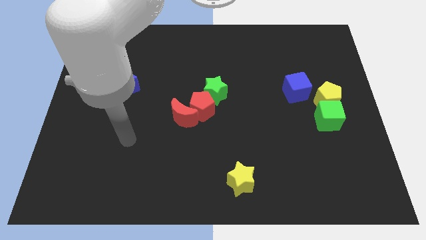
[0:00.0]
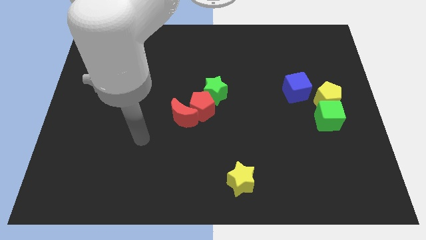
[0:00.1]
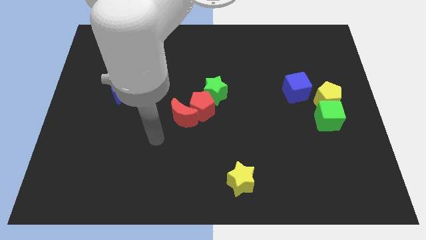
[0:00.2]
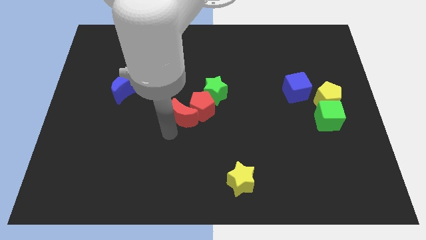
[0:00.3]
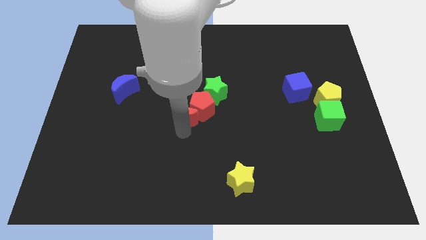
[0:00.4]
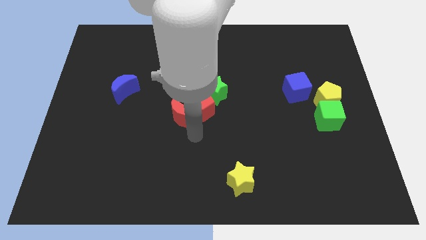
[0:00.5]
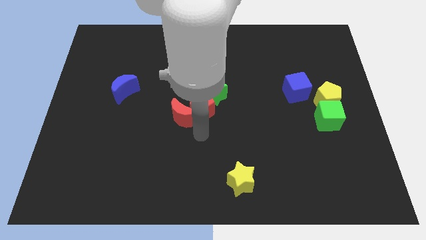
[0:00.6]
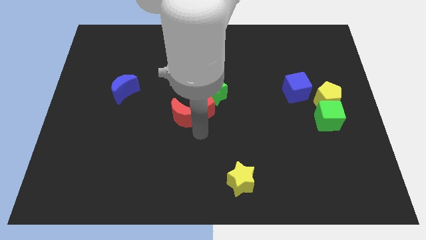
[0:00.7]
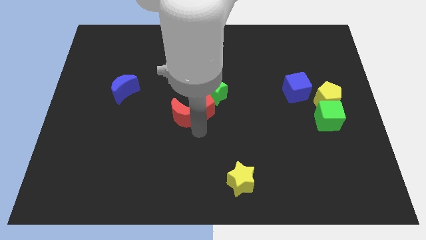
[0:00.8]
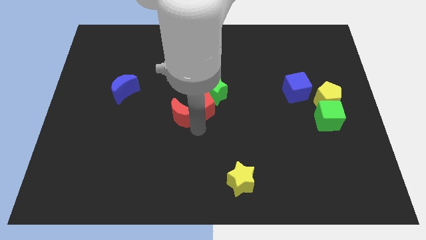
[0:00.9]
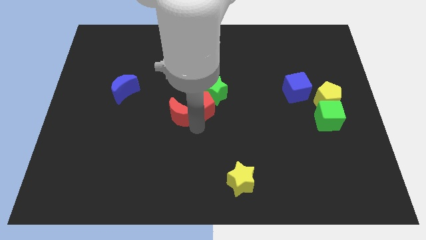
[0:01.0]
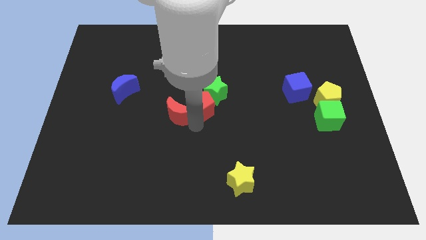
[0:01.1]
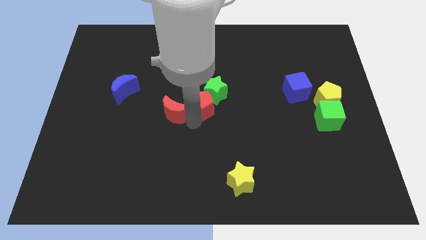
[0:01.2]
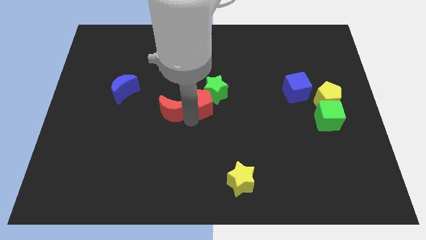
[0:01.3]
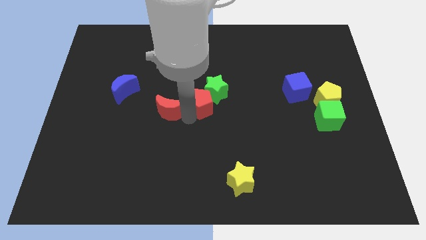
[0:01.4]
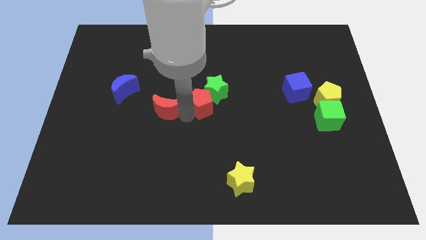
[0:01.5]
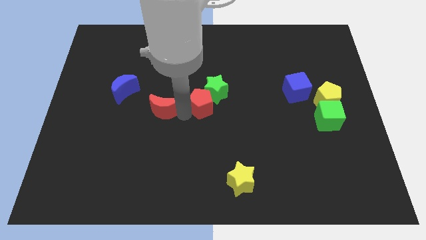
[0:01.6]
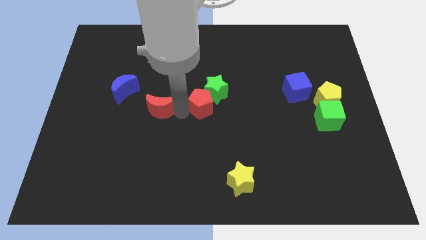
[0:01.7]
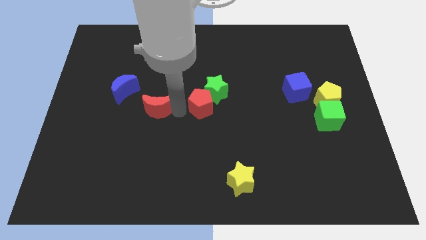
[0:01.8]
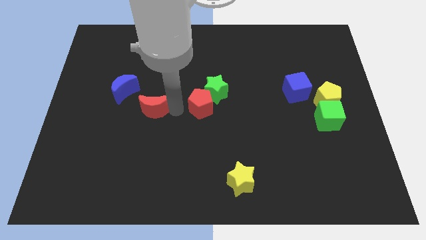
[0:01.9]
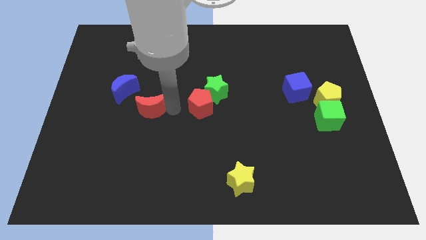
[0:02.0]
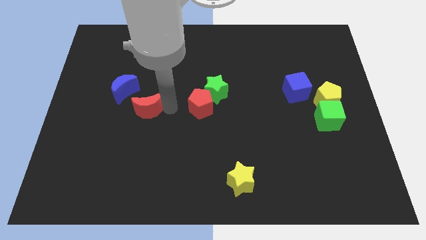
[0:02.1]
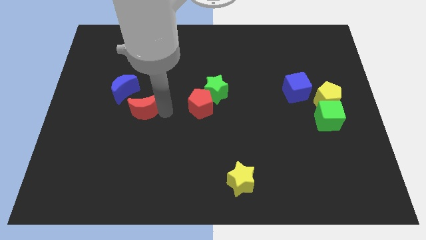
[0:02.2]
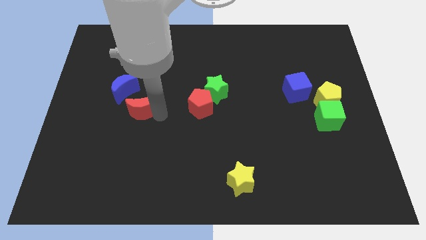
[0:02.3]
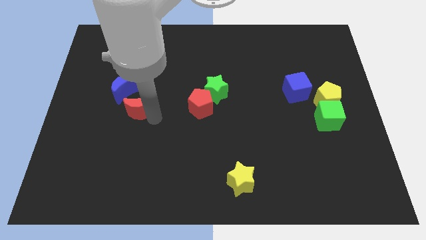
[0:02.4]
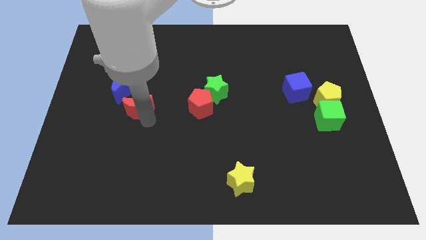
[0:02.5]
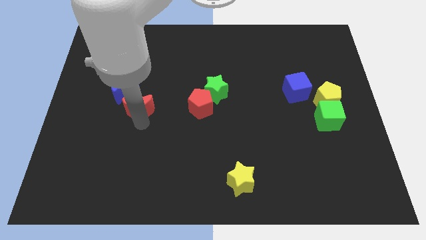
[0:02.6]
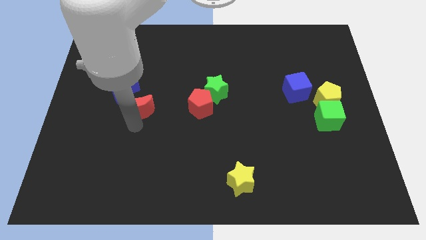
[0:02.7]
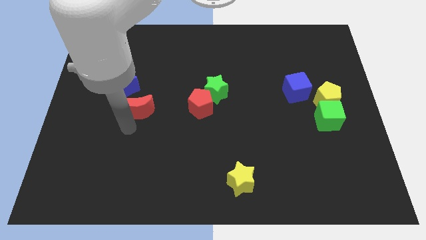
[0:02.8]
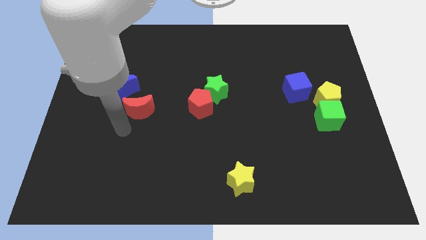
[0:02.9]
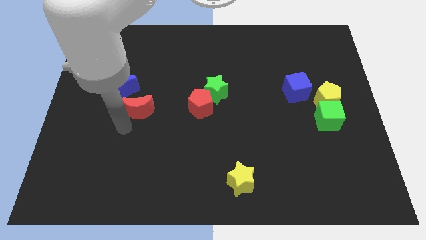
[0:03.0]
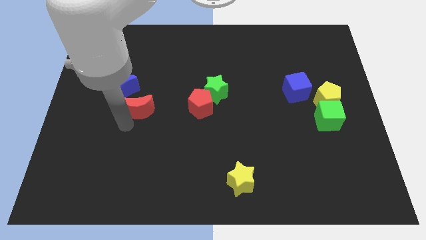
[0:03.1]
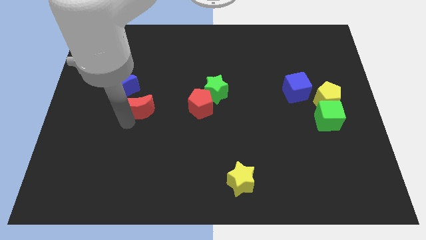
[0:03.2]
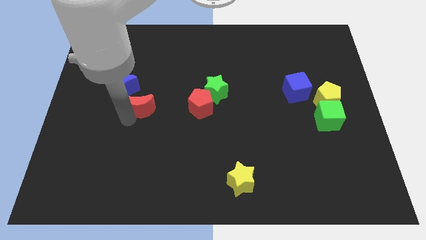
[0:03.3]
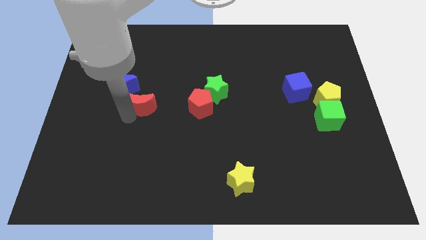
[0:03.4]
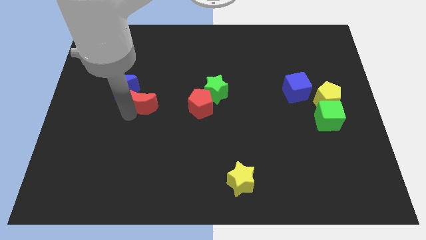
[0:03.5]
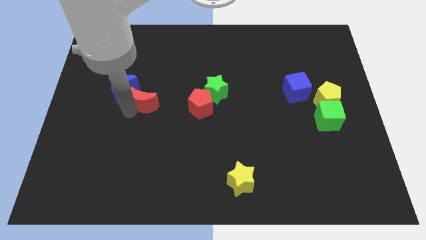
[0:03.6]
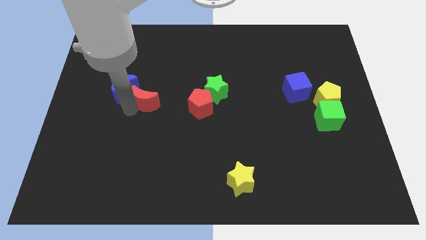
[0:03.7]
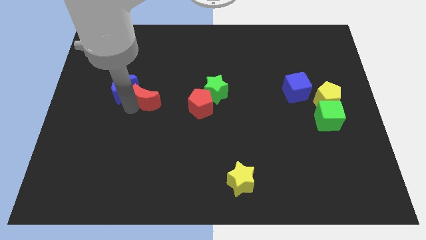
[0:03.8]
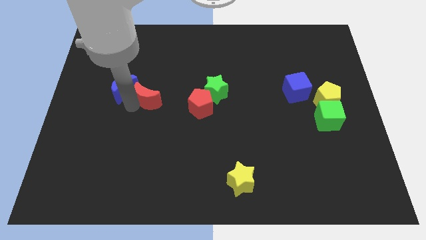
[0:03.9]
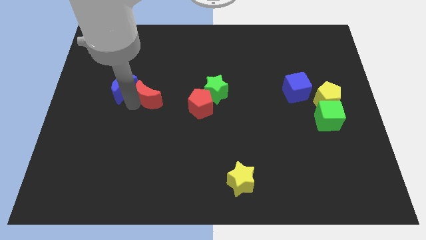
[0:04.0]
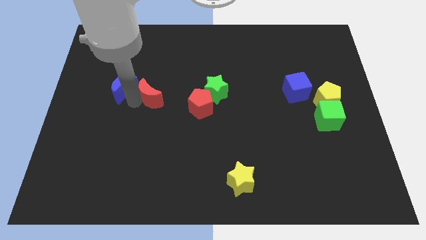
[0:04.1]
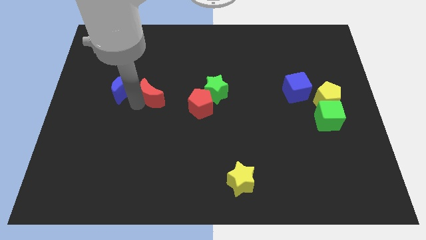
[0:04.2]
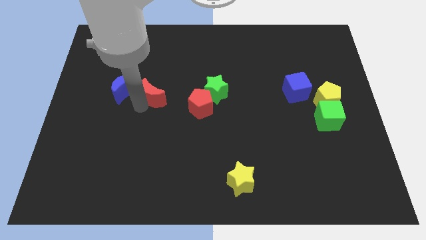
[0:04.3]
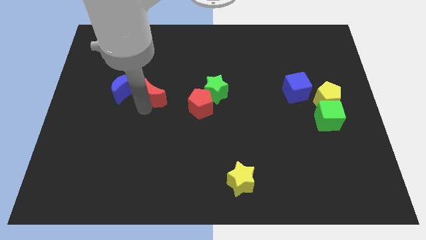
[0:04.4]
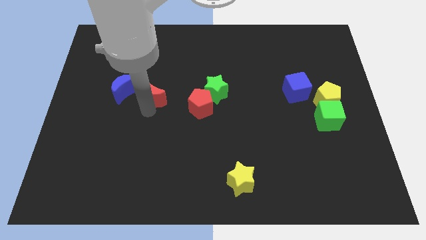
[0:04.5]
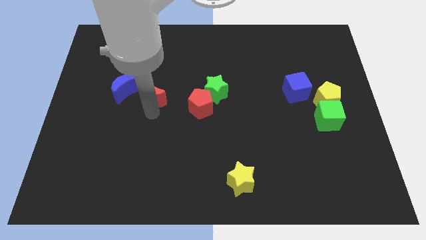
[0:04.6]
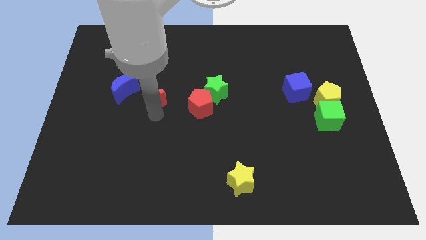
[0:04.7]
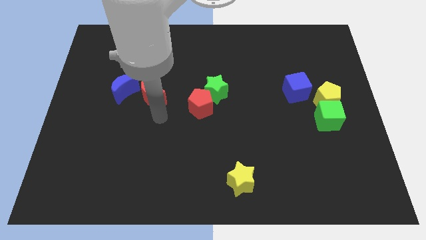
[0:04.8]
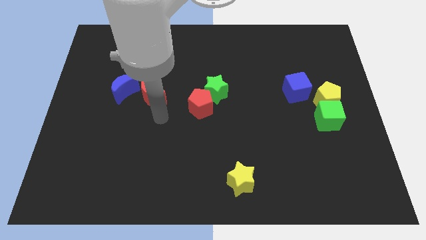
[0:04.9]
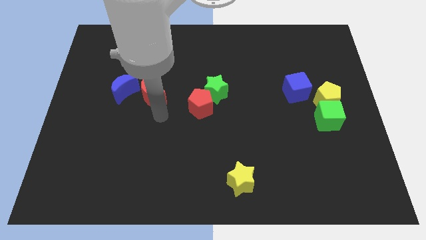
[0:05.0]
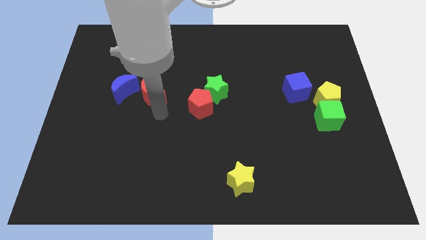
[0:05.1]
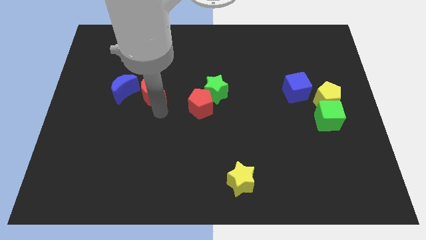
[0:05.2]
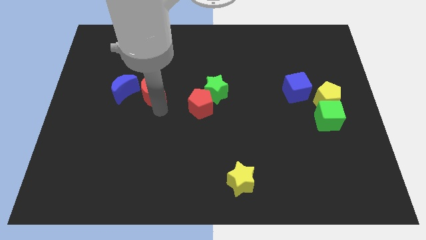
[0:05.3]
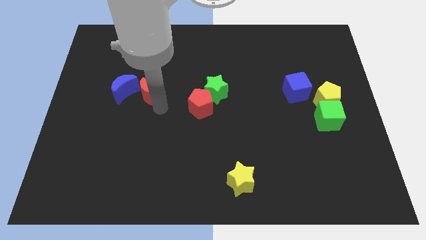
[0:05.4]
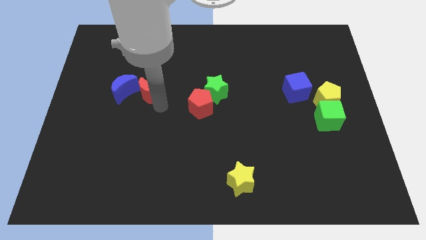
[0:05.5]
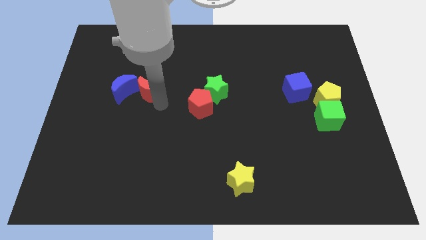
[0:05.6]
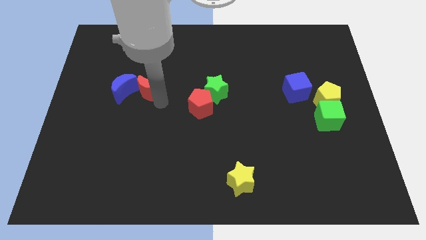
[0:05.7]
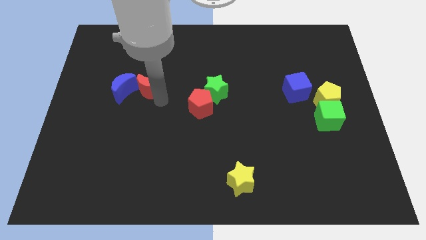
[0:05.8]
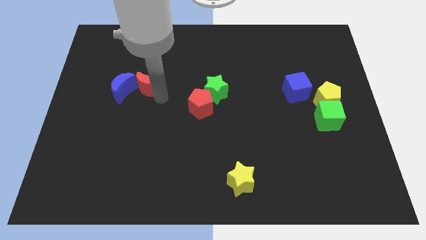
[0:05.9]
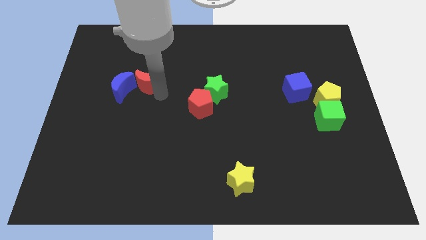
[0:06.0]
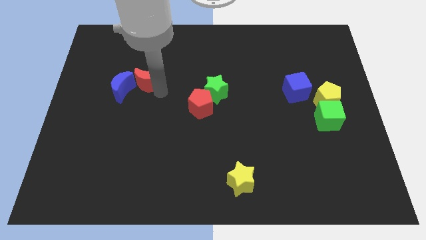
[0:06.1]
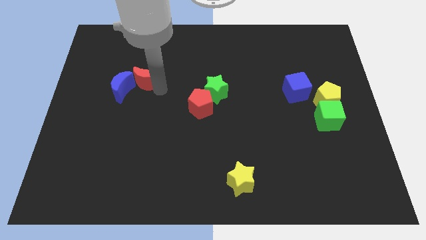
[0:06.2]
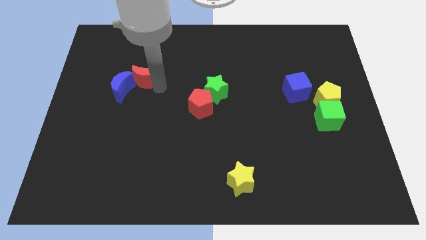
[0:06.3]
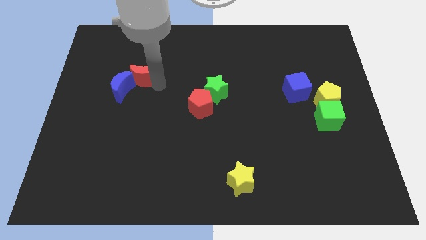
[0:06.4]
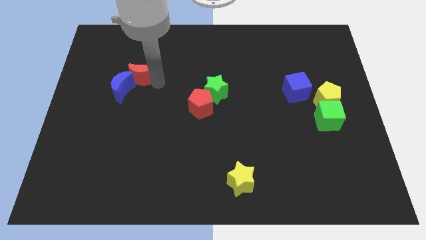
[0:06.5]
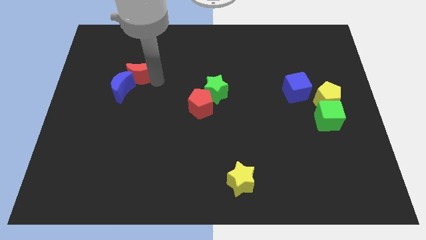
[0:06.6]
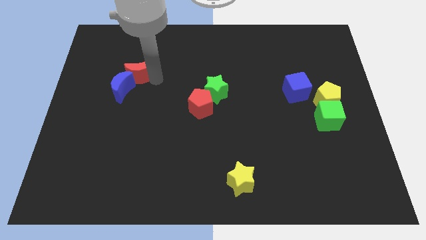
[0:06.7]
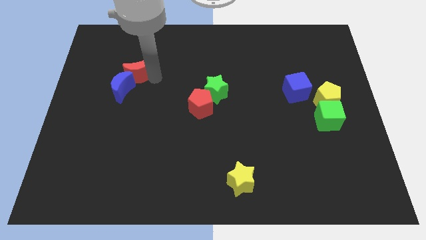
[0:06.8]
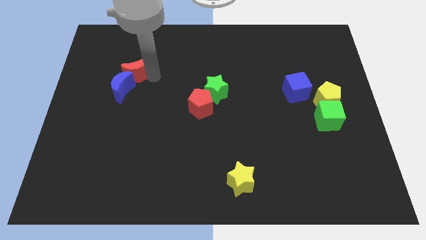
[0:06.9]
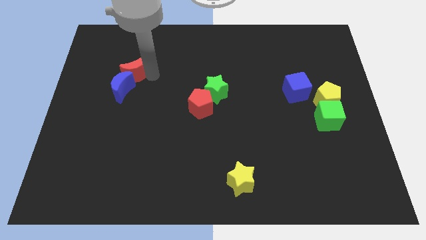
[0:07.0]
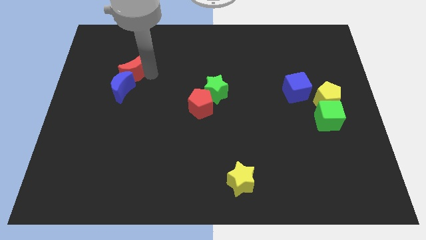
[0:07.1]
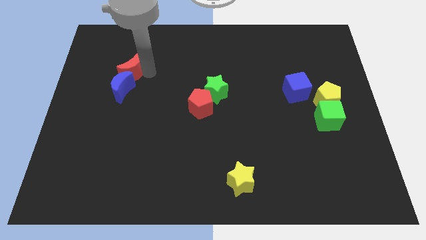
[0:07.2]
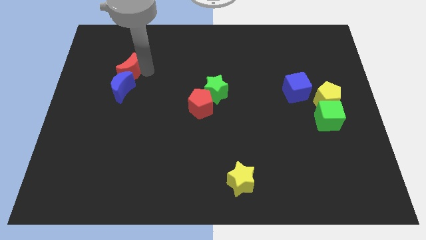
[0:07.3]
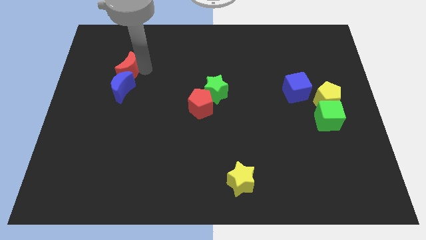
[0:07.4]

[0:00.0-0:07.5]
slide the red moon to the top left of the blue moon

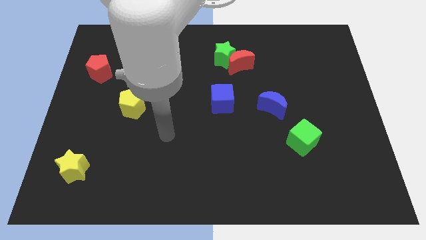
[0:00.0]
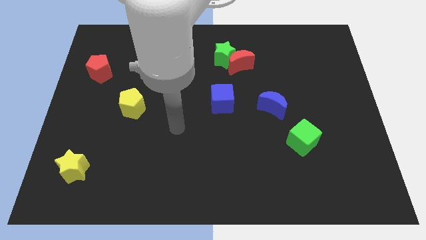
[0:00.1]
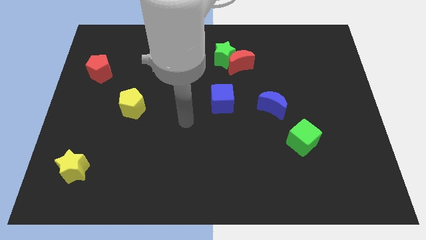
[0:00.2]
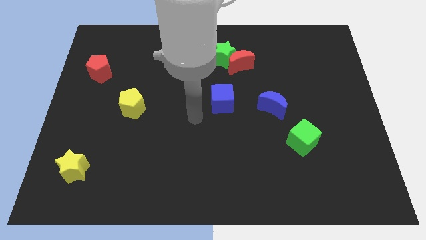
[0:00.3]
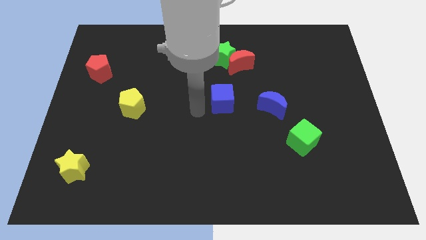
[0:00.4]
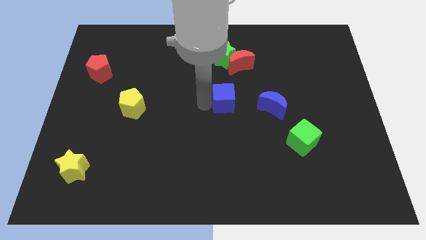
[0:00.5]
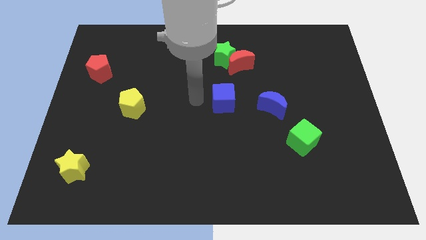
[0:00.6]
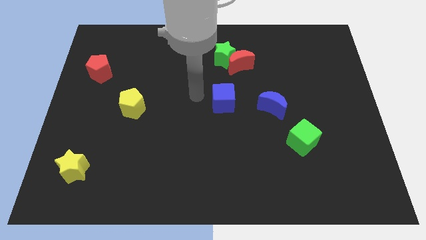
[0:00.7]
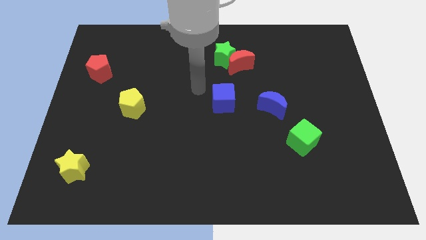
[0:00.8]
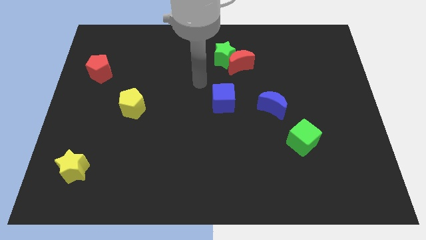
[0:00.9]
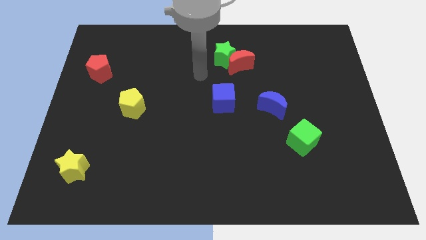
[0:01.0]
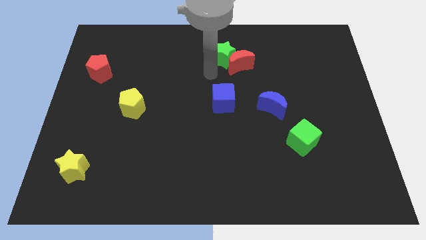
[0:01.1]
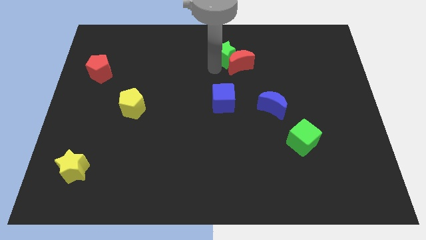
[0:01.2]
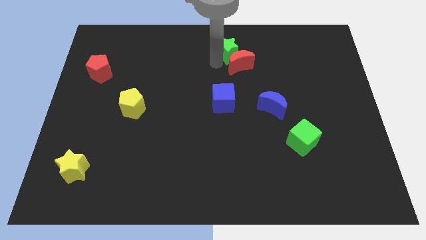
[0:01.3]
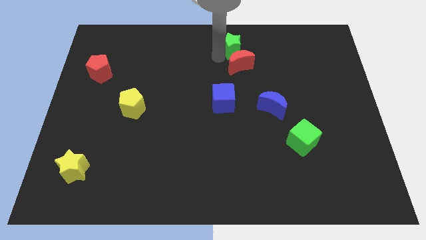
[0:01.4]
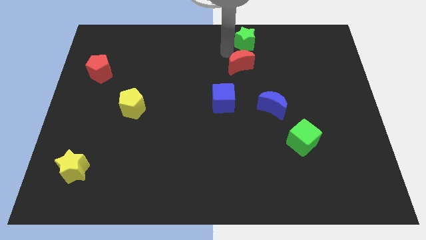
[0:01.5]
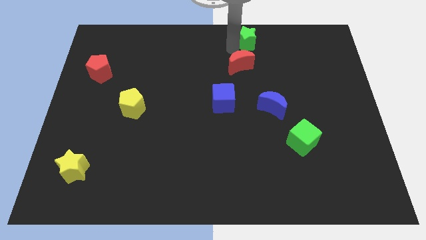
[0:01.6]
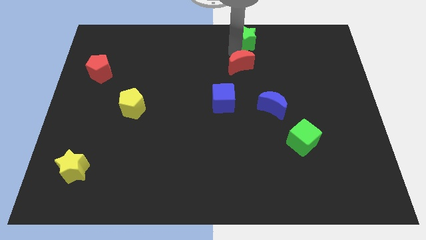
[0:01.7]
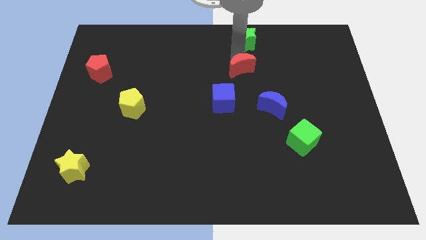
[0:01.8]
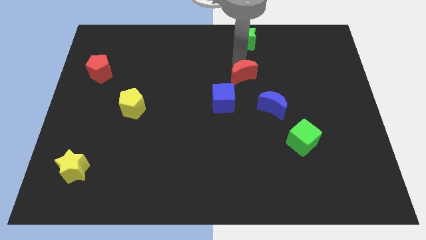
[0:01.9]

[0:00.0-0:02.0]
push the red moon diagonally up and to the left of the blue moon
